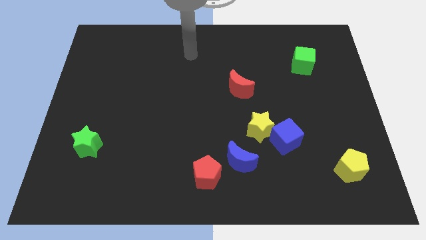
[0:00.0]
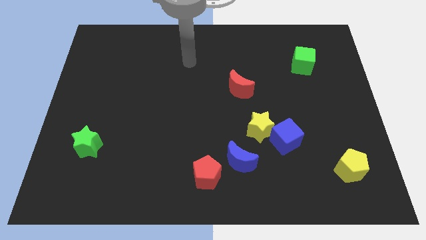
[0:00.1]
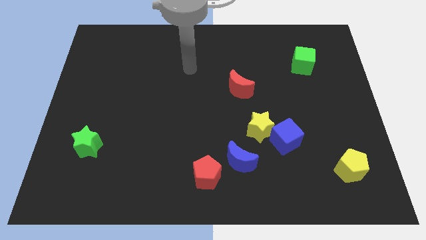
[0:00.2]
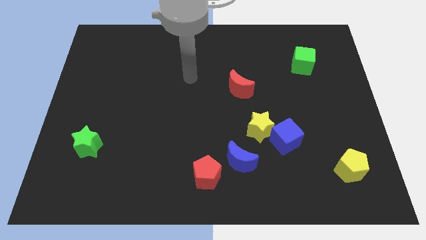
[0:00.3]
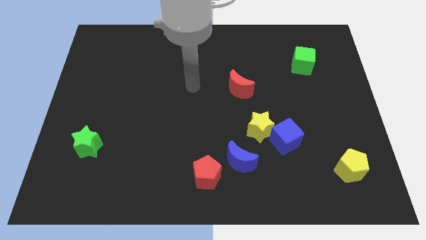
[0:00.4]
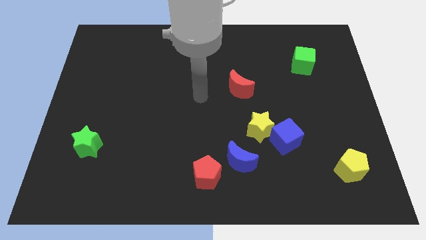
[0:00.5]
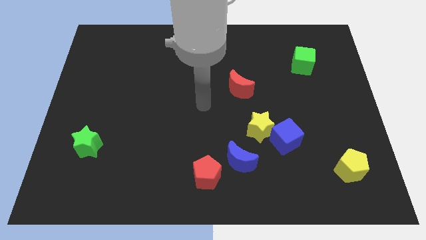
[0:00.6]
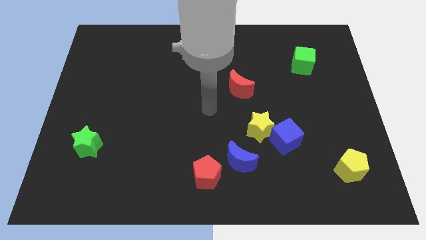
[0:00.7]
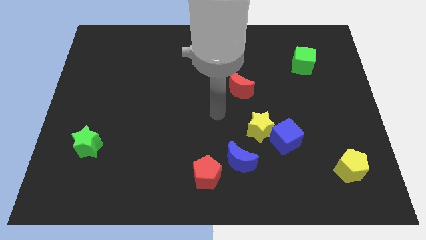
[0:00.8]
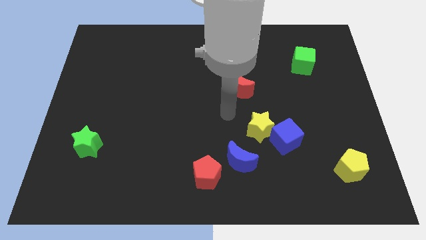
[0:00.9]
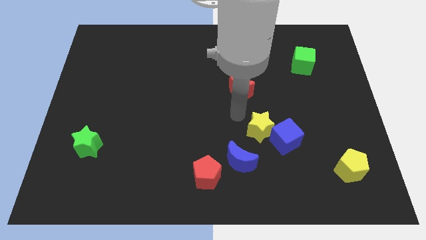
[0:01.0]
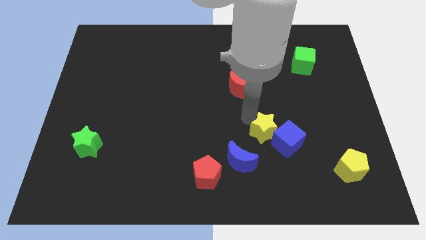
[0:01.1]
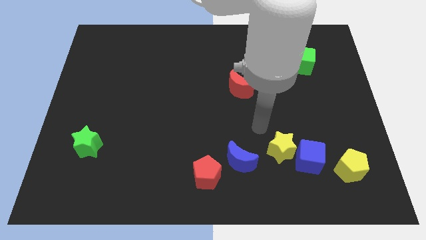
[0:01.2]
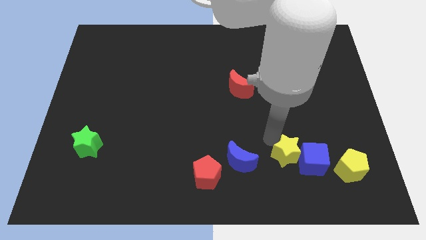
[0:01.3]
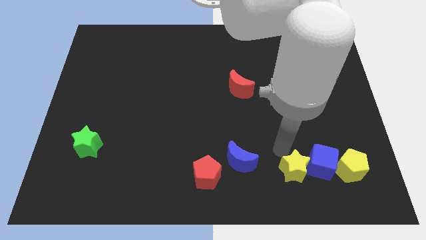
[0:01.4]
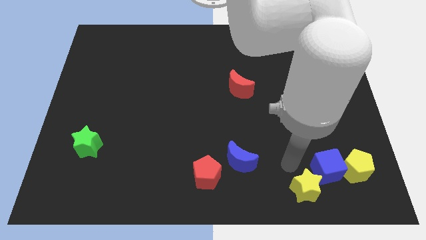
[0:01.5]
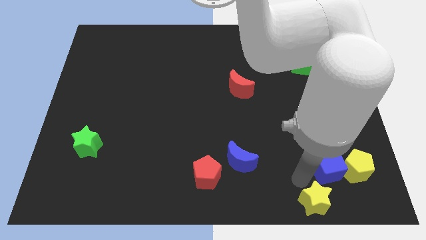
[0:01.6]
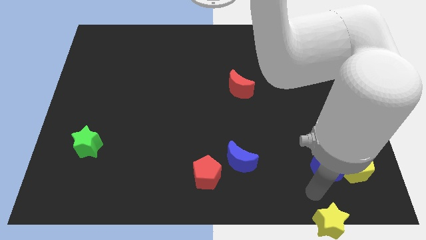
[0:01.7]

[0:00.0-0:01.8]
pull the blue cube apart from the yellow star

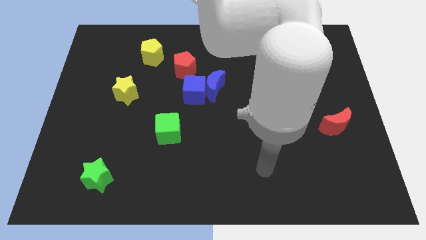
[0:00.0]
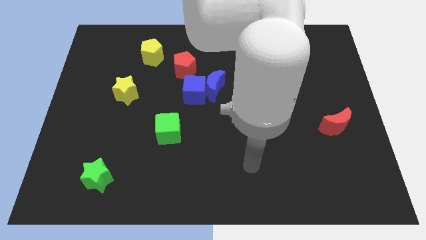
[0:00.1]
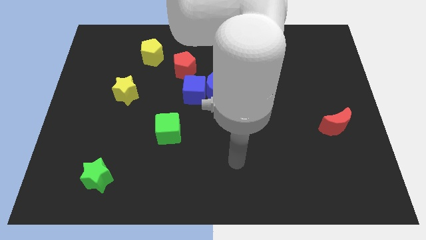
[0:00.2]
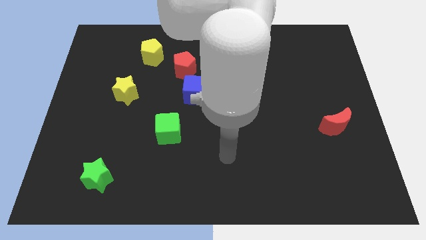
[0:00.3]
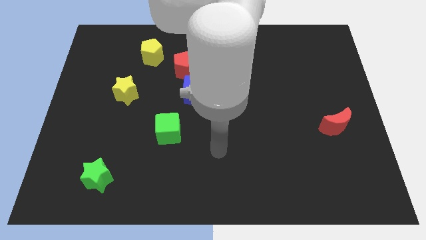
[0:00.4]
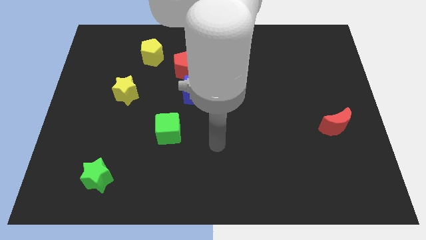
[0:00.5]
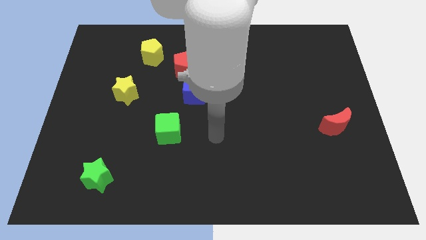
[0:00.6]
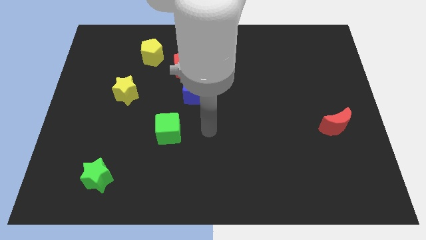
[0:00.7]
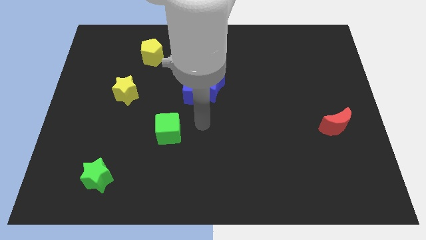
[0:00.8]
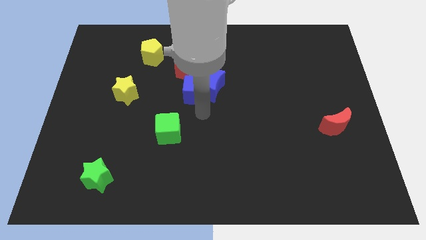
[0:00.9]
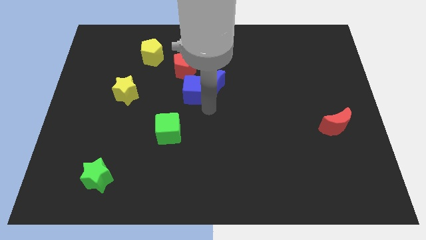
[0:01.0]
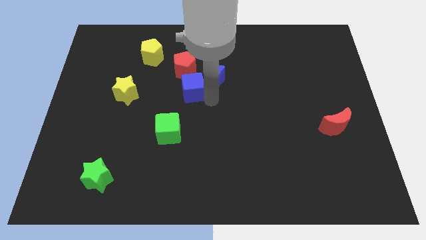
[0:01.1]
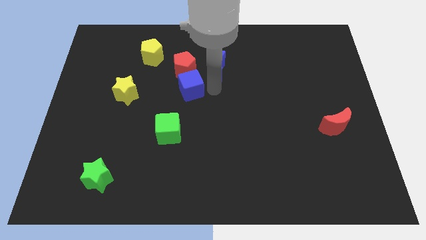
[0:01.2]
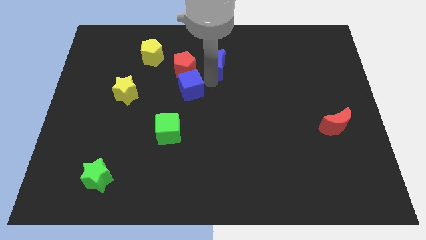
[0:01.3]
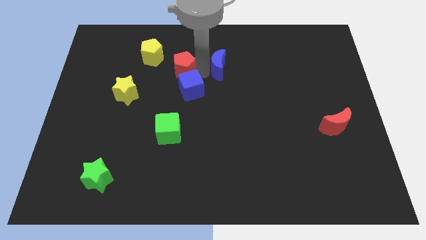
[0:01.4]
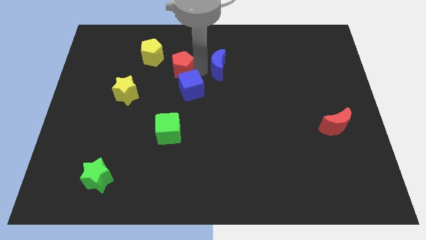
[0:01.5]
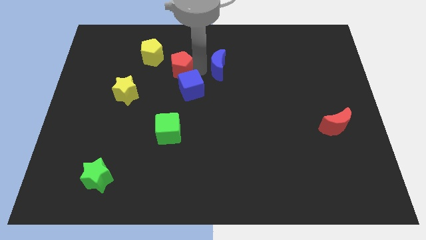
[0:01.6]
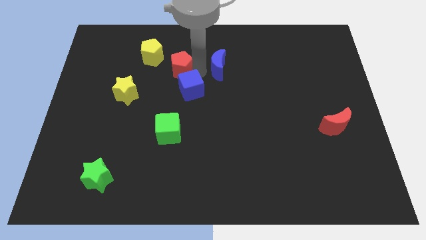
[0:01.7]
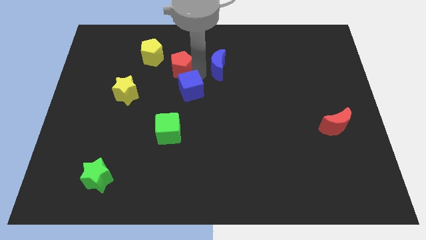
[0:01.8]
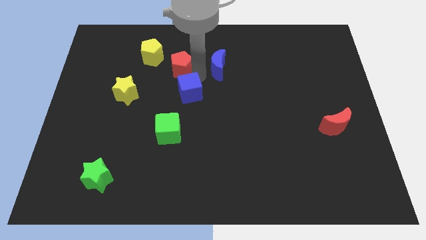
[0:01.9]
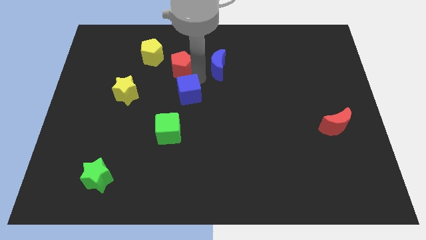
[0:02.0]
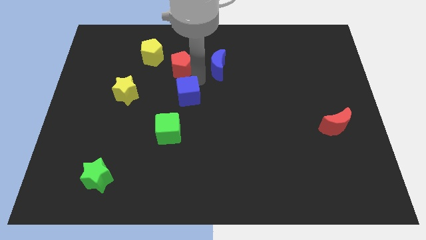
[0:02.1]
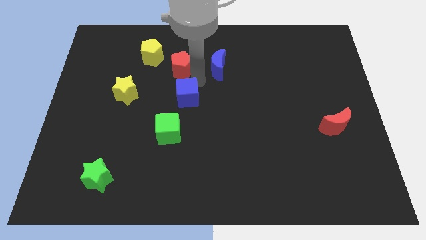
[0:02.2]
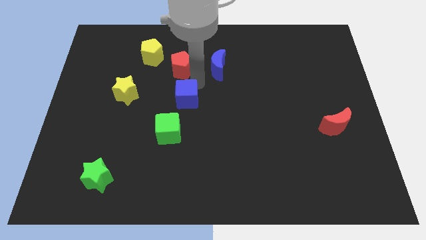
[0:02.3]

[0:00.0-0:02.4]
pull the blue cube apart from the blue moon and red pentagon

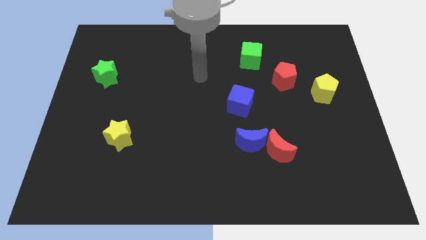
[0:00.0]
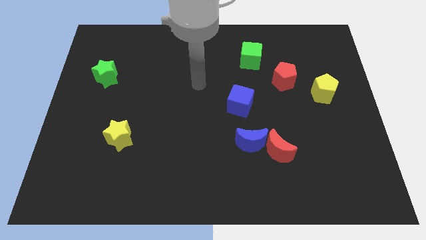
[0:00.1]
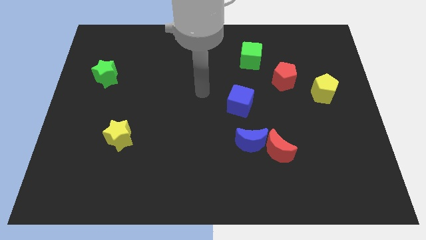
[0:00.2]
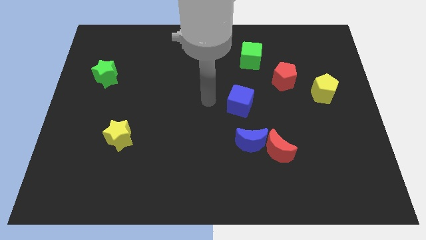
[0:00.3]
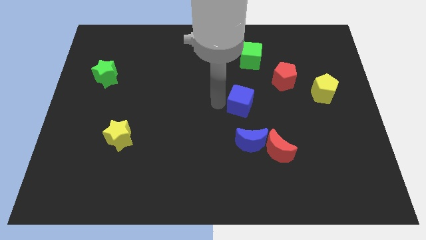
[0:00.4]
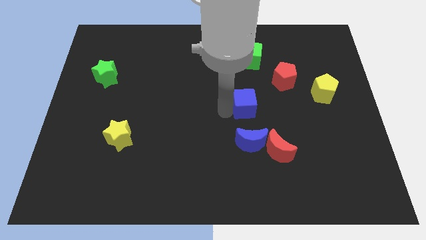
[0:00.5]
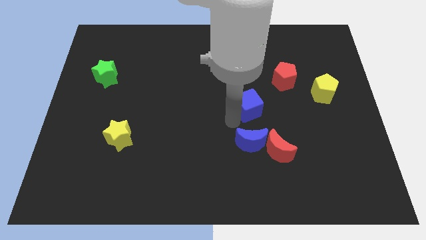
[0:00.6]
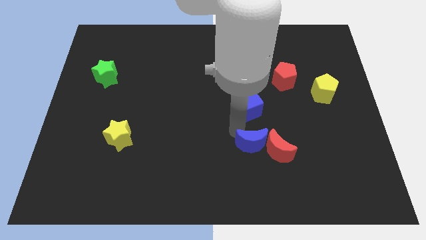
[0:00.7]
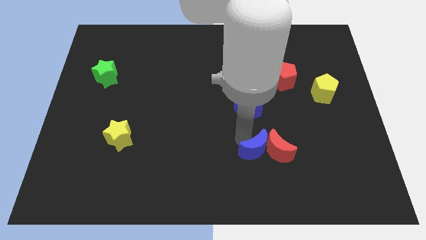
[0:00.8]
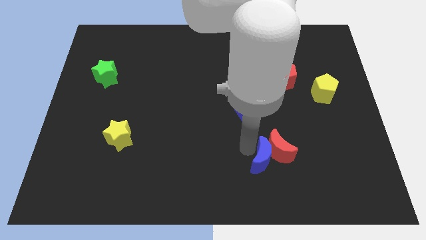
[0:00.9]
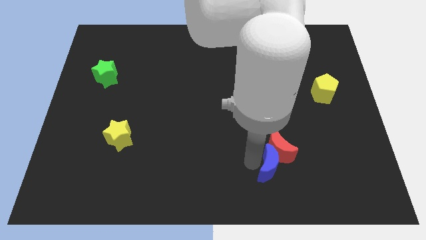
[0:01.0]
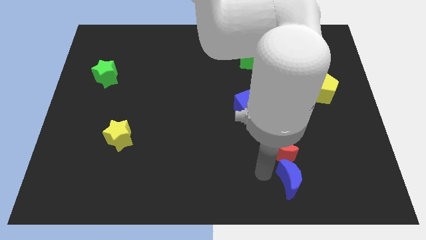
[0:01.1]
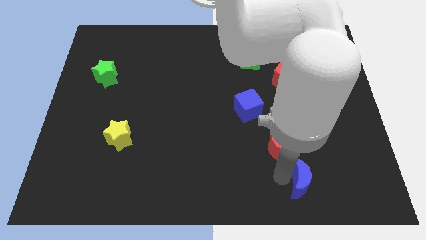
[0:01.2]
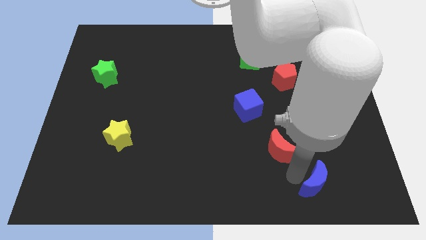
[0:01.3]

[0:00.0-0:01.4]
pull the red moon apart from the blue moon

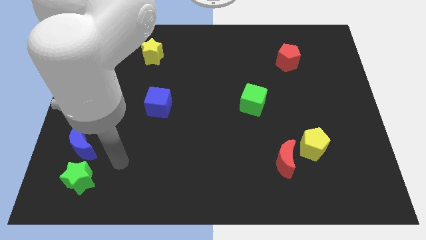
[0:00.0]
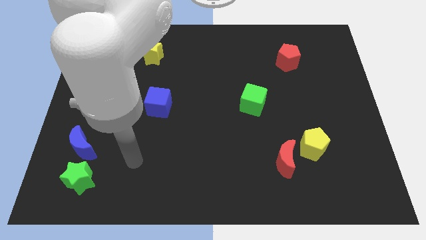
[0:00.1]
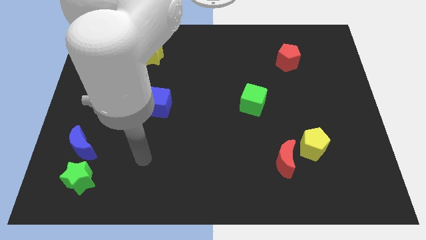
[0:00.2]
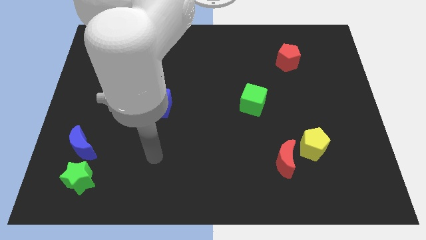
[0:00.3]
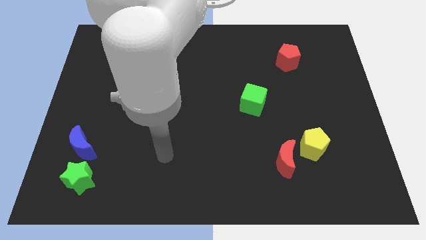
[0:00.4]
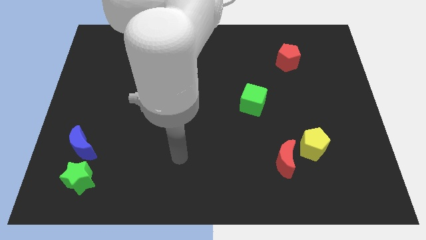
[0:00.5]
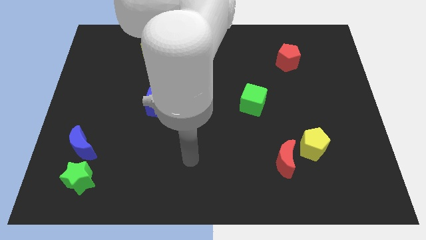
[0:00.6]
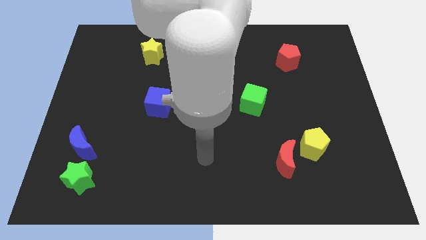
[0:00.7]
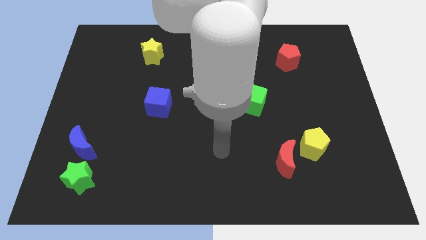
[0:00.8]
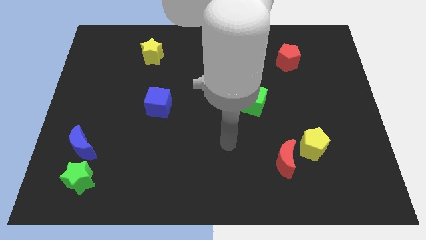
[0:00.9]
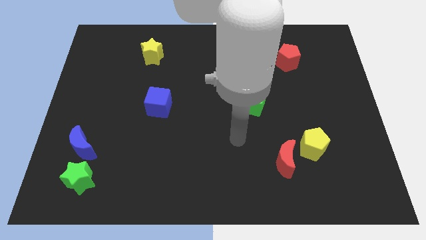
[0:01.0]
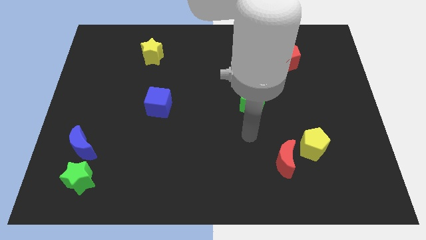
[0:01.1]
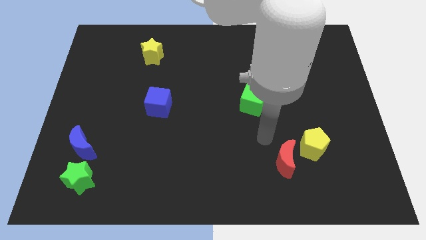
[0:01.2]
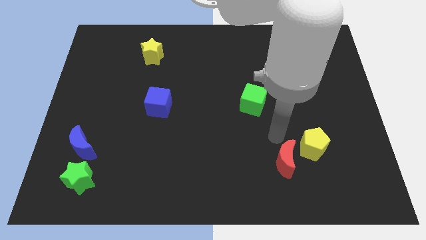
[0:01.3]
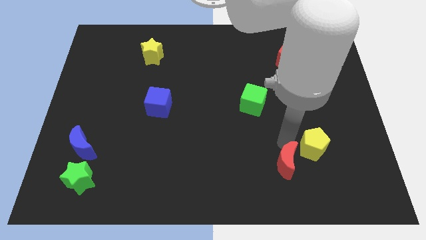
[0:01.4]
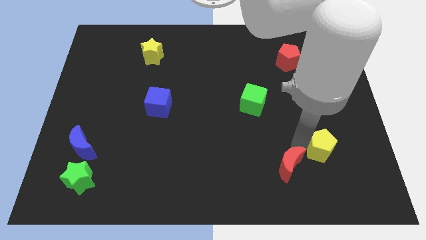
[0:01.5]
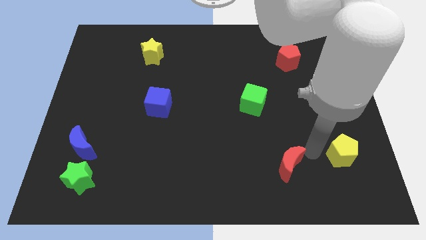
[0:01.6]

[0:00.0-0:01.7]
pull the red moon apart from the yellow pentagon

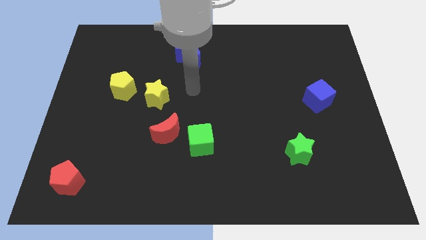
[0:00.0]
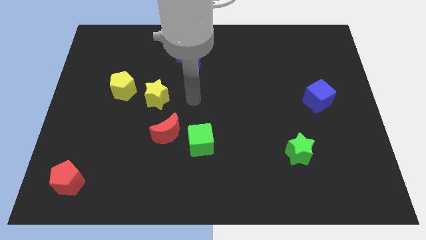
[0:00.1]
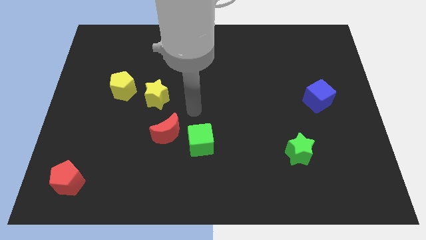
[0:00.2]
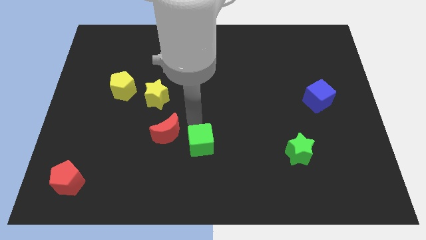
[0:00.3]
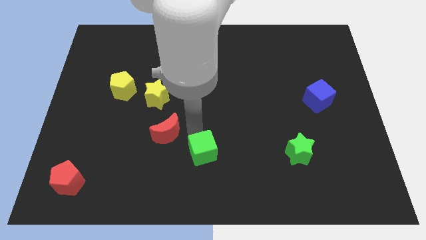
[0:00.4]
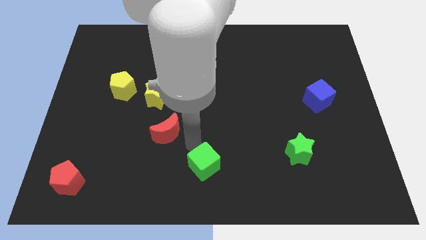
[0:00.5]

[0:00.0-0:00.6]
separate the red moon from the green cube

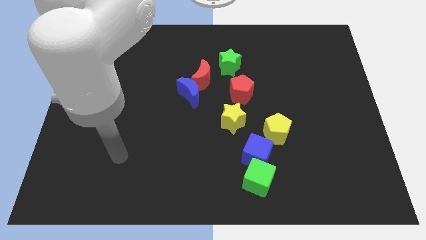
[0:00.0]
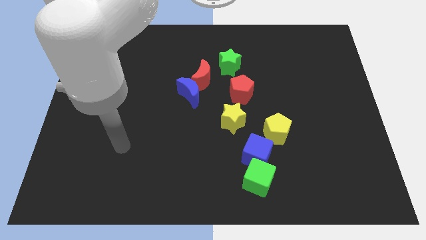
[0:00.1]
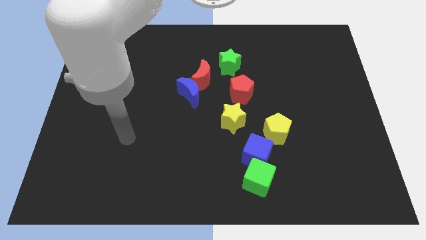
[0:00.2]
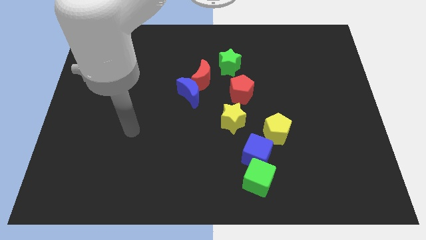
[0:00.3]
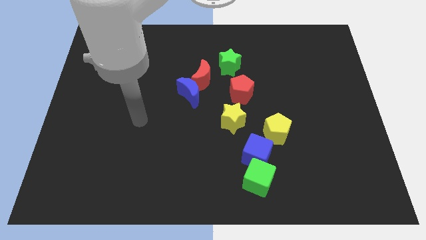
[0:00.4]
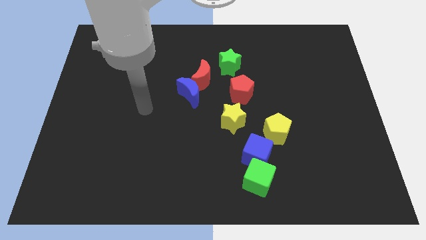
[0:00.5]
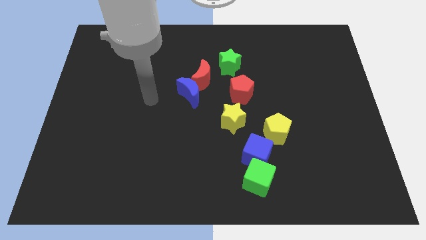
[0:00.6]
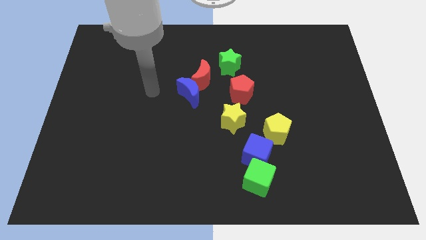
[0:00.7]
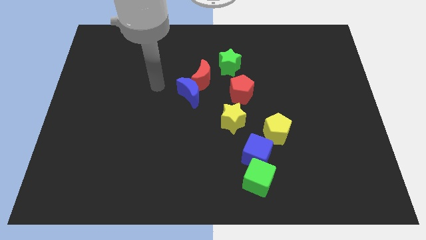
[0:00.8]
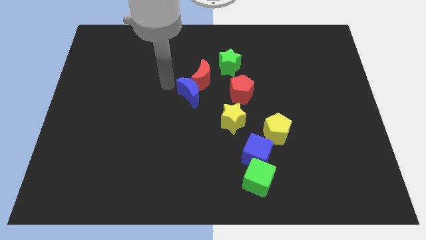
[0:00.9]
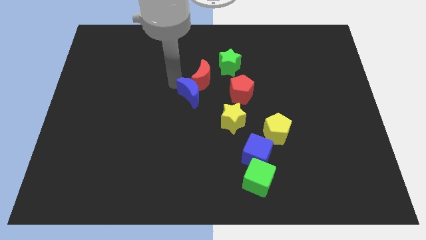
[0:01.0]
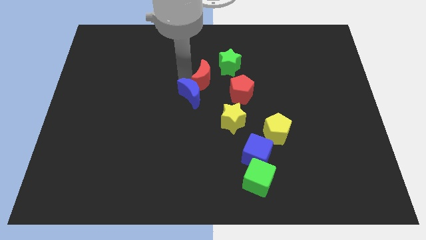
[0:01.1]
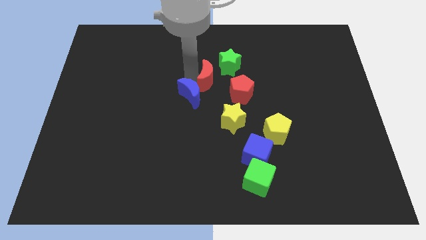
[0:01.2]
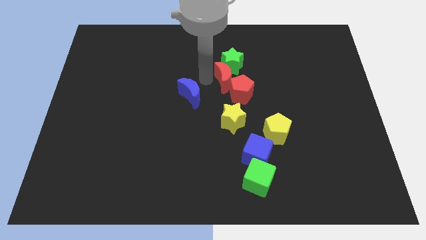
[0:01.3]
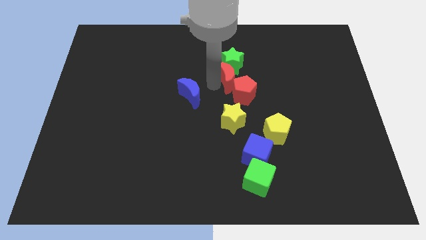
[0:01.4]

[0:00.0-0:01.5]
separate the blue moon from the red moon
